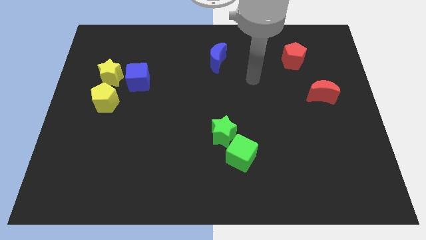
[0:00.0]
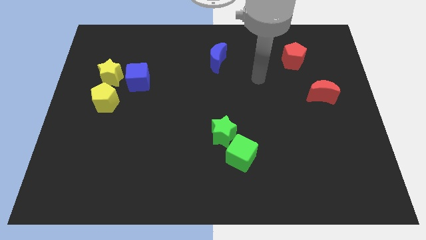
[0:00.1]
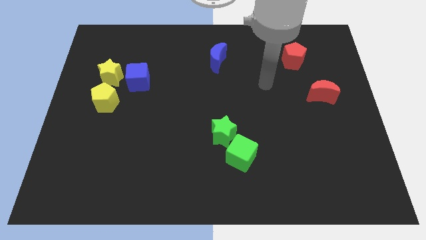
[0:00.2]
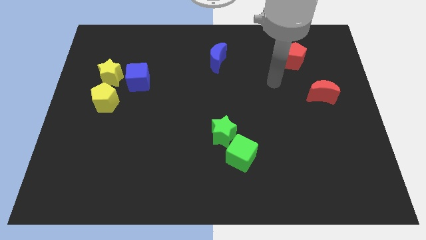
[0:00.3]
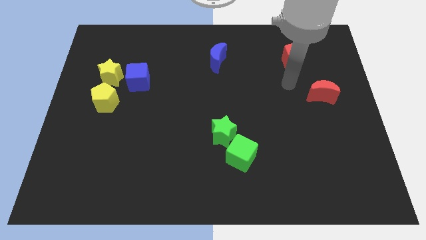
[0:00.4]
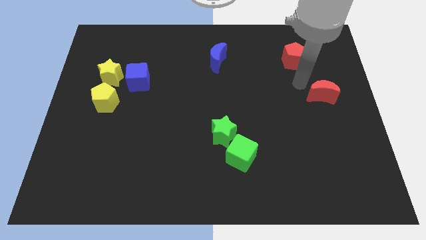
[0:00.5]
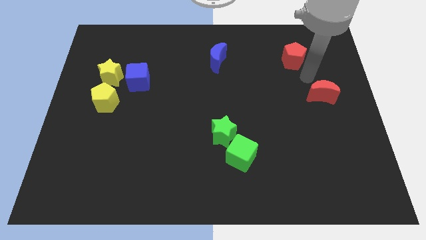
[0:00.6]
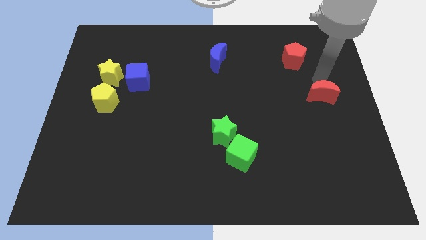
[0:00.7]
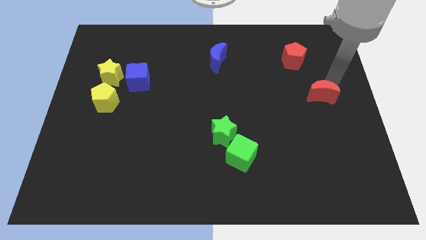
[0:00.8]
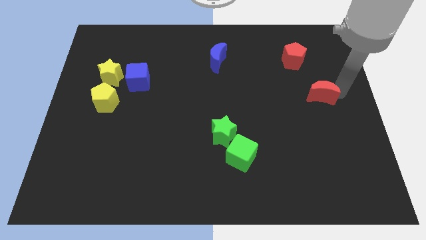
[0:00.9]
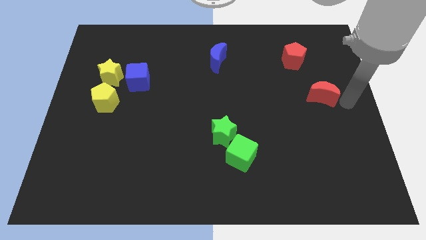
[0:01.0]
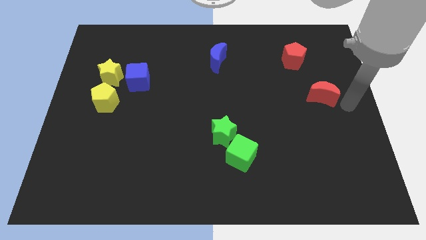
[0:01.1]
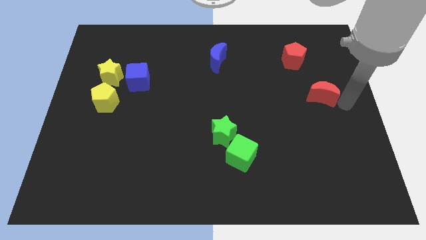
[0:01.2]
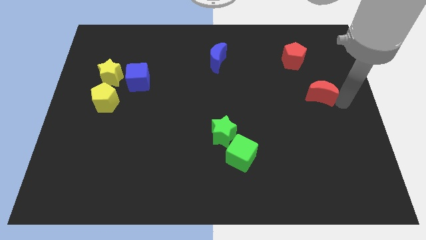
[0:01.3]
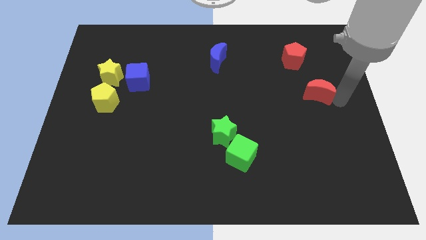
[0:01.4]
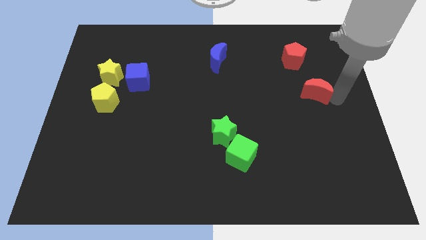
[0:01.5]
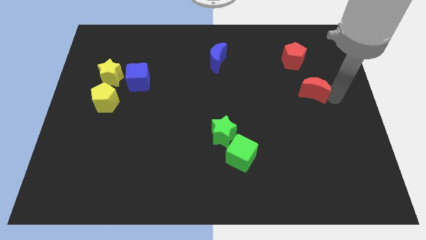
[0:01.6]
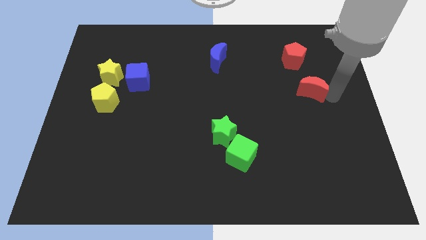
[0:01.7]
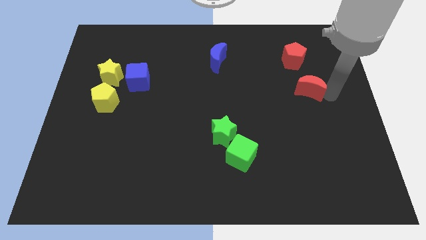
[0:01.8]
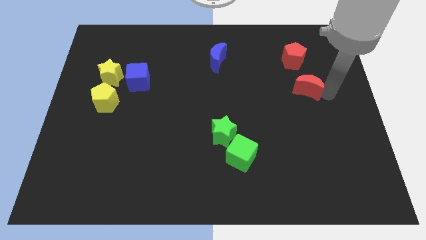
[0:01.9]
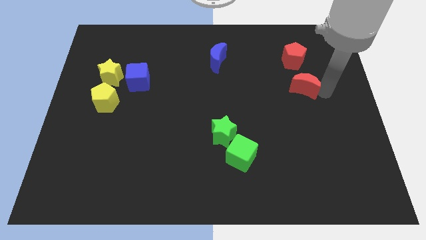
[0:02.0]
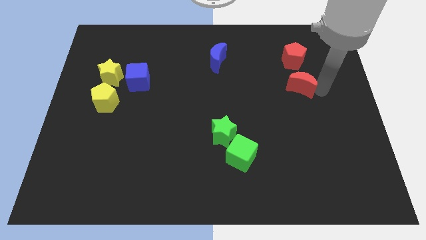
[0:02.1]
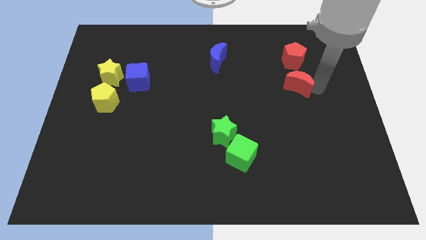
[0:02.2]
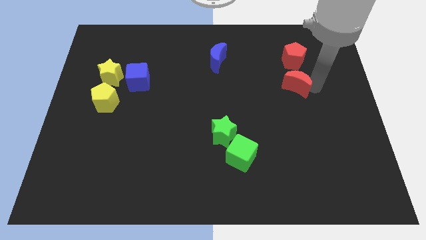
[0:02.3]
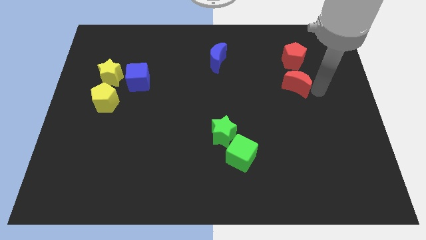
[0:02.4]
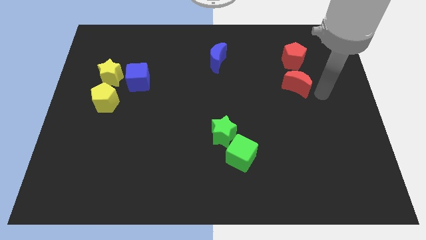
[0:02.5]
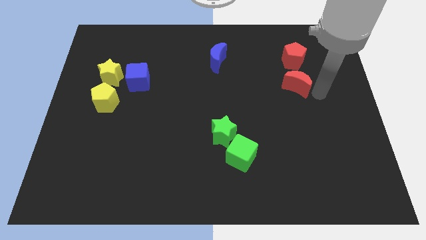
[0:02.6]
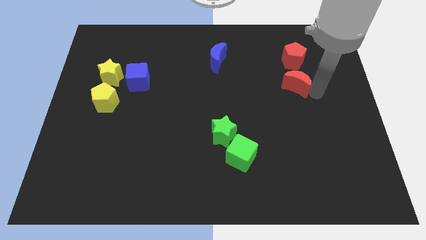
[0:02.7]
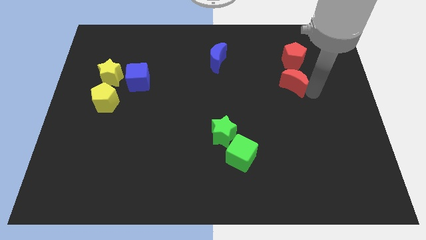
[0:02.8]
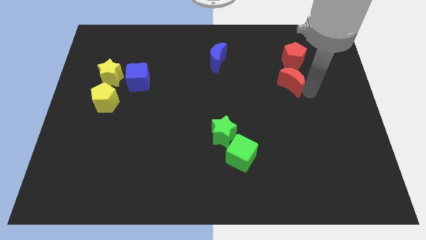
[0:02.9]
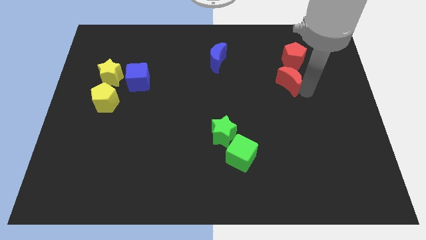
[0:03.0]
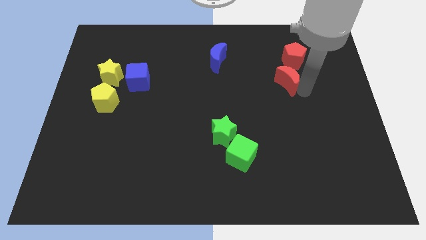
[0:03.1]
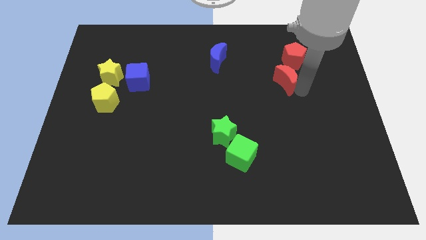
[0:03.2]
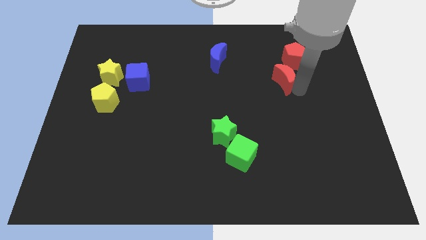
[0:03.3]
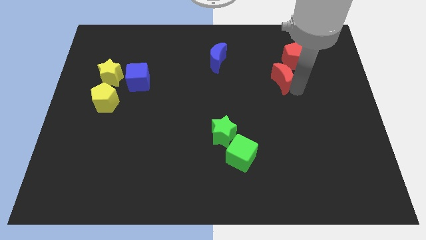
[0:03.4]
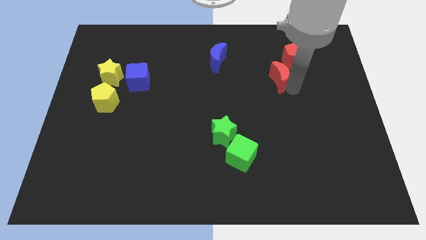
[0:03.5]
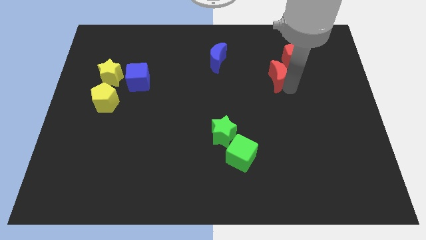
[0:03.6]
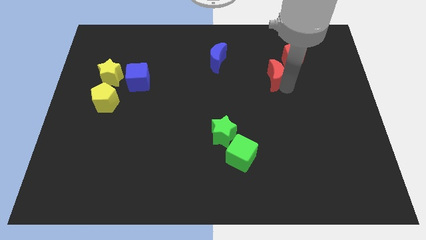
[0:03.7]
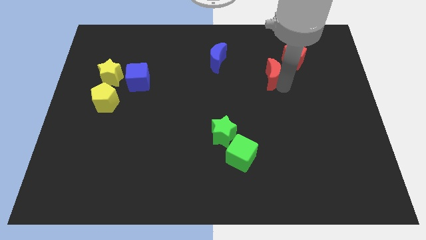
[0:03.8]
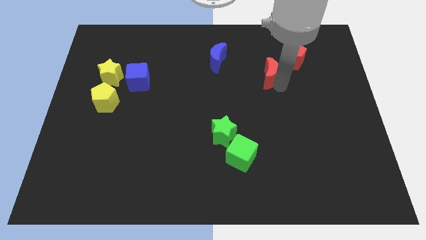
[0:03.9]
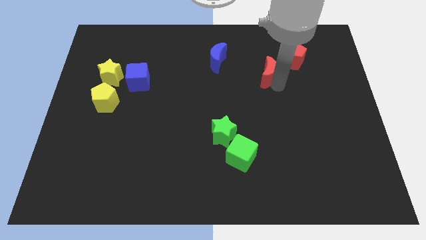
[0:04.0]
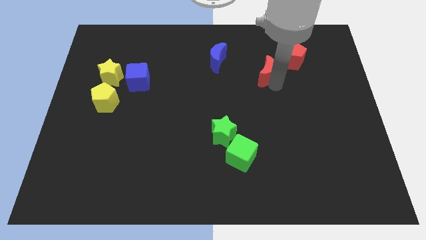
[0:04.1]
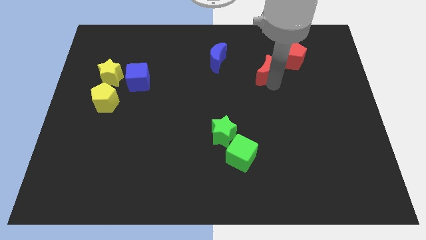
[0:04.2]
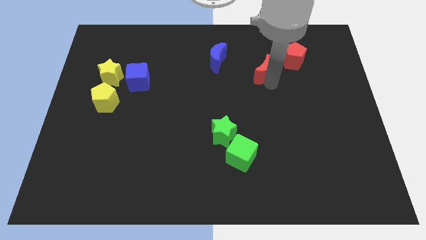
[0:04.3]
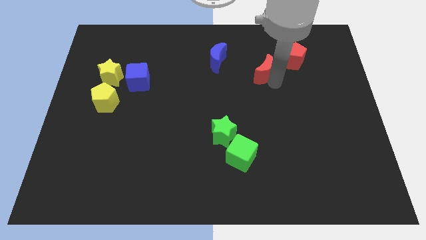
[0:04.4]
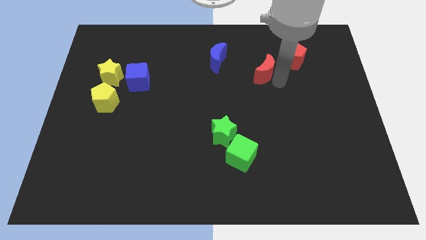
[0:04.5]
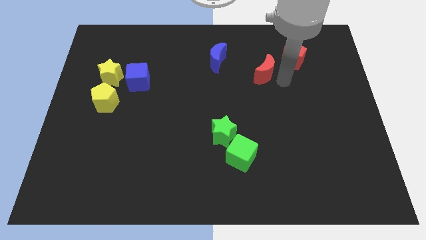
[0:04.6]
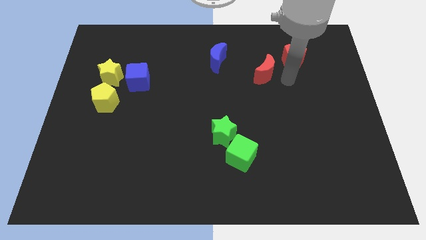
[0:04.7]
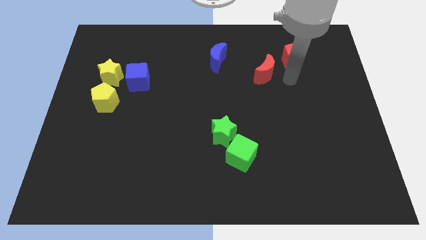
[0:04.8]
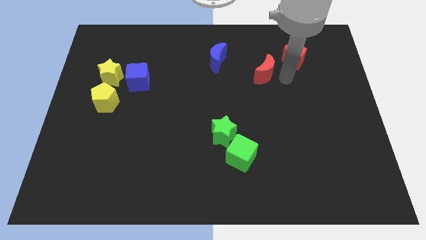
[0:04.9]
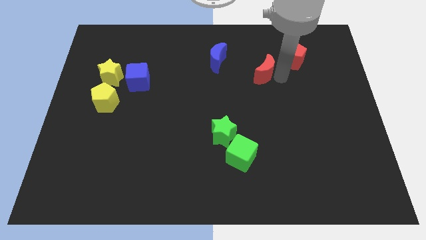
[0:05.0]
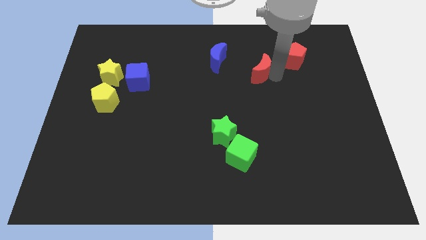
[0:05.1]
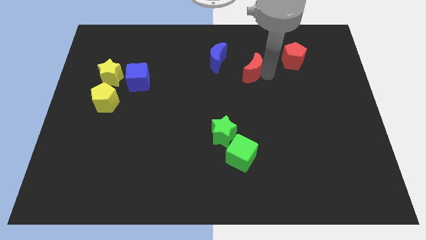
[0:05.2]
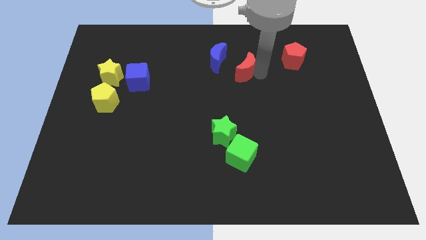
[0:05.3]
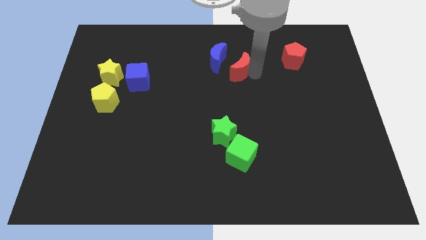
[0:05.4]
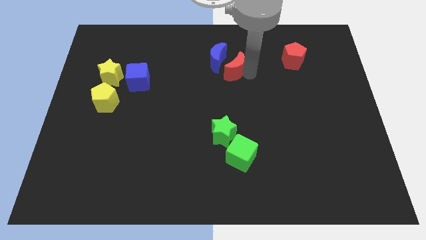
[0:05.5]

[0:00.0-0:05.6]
slide the red moon towards the blue moon

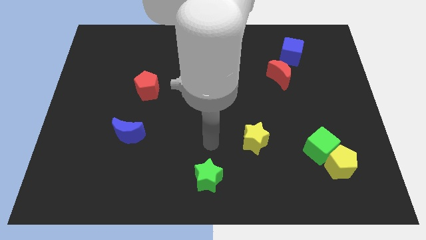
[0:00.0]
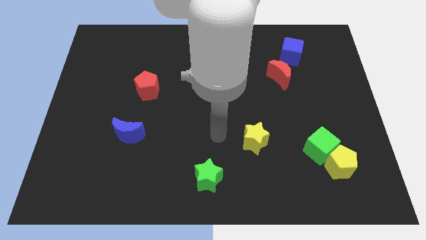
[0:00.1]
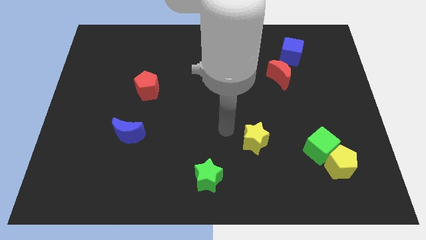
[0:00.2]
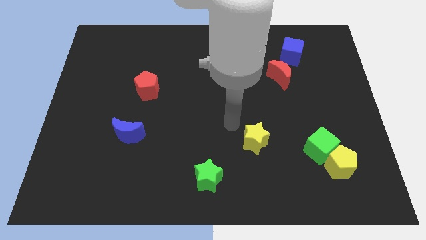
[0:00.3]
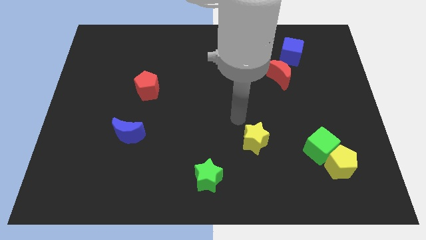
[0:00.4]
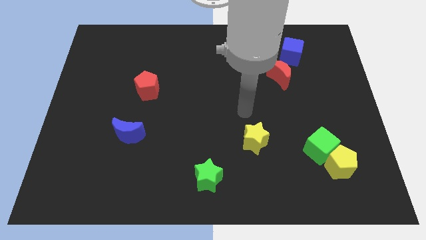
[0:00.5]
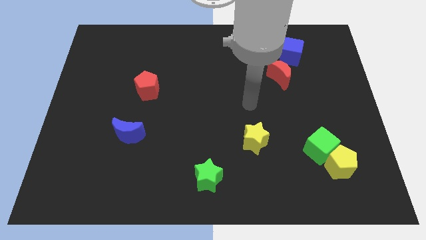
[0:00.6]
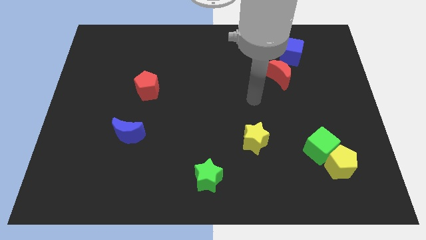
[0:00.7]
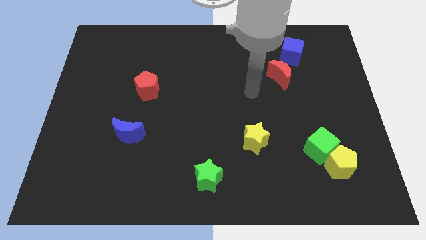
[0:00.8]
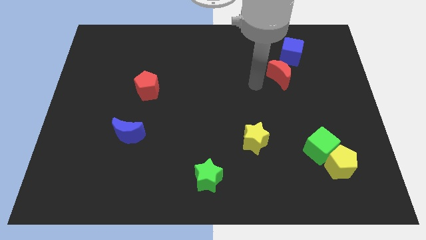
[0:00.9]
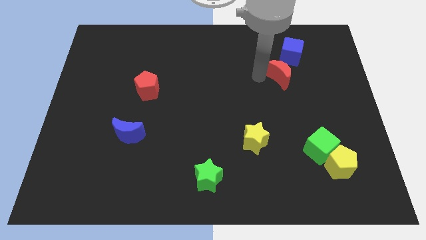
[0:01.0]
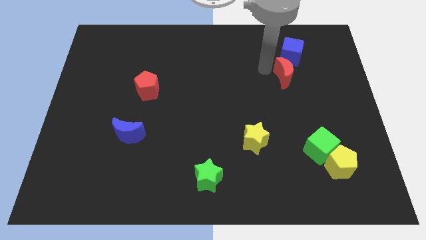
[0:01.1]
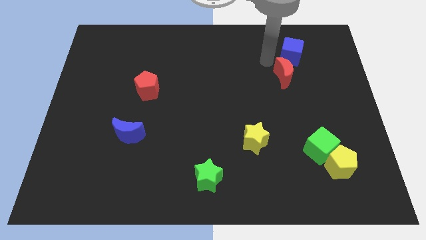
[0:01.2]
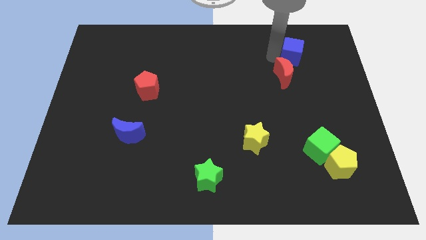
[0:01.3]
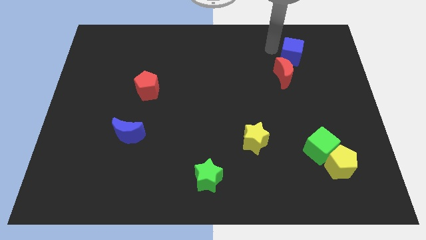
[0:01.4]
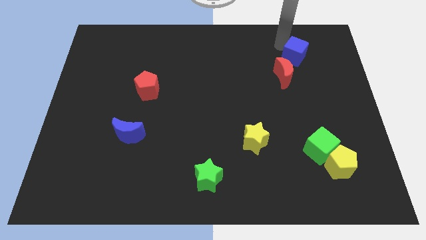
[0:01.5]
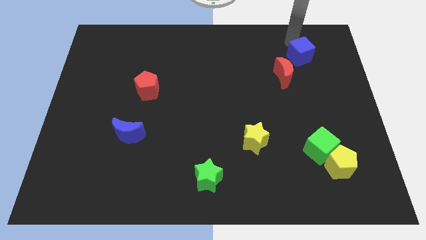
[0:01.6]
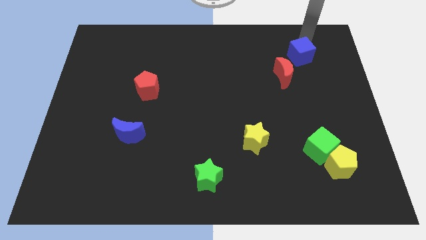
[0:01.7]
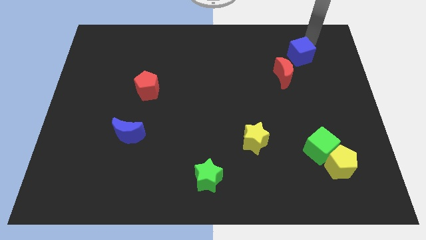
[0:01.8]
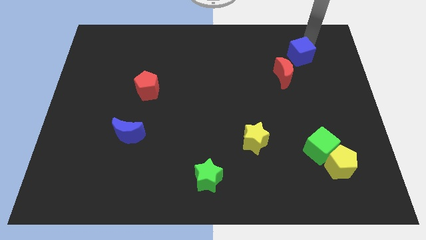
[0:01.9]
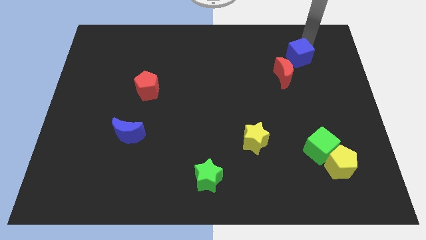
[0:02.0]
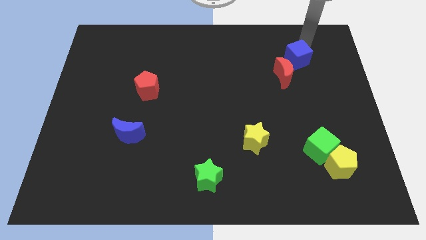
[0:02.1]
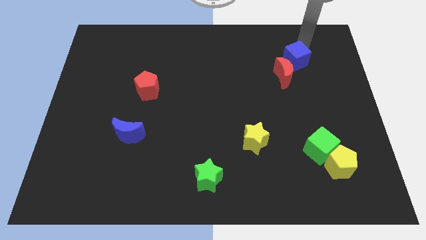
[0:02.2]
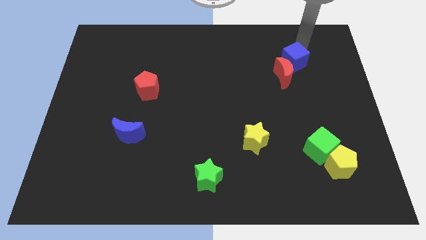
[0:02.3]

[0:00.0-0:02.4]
slide the blue cube next to the red moon
